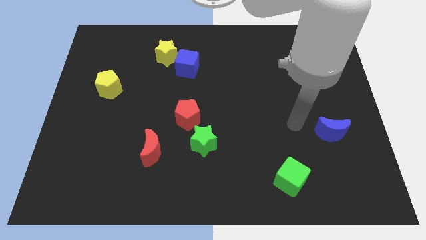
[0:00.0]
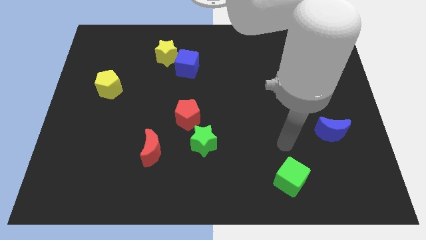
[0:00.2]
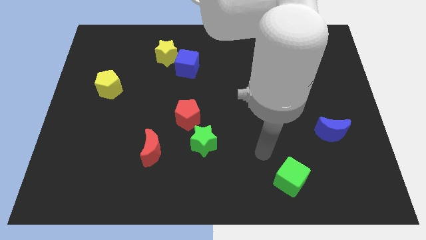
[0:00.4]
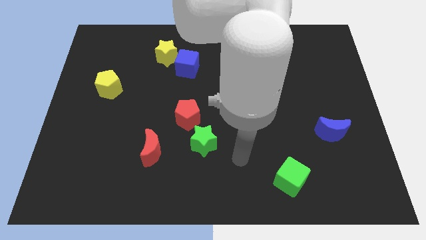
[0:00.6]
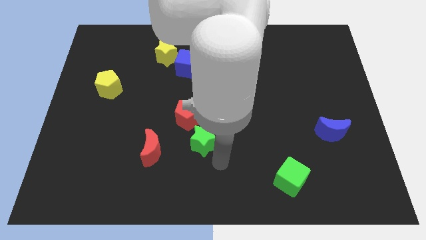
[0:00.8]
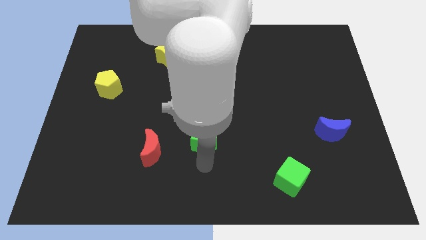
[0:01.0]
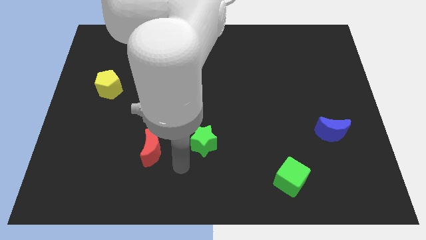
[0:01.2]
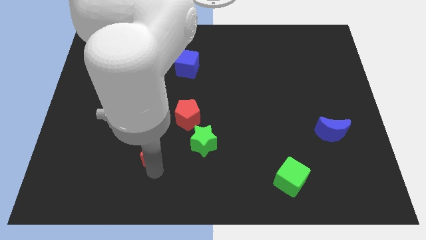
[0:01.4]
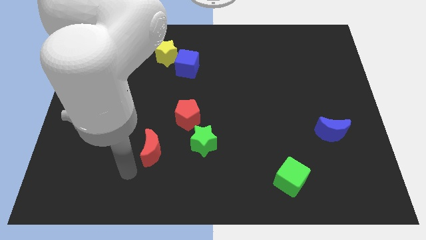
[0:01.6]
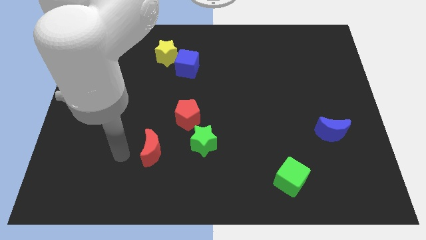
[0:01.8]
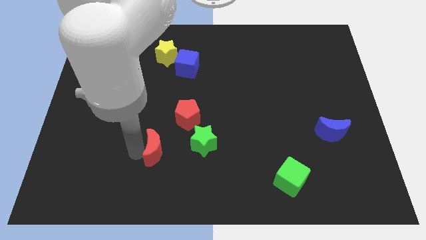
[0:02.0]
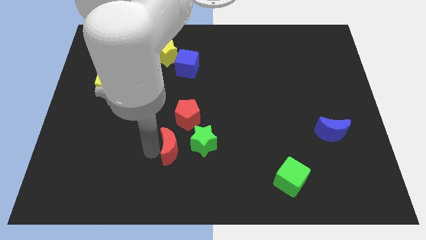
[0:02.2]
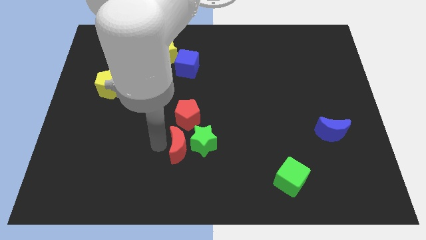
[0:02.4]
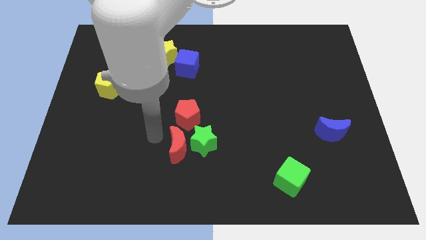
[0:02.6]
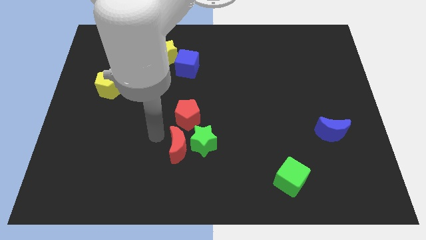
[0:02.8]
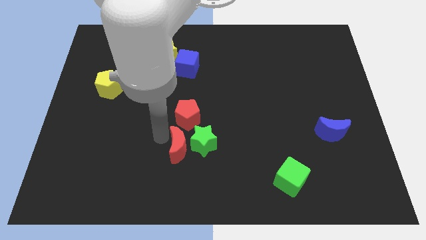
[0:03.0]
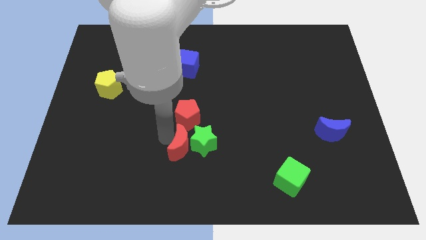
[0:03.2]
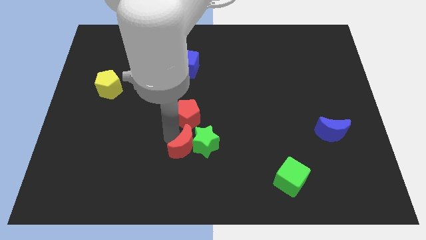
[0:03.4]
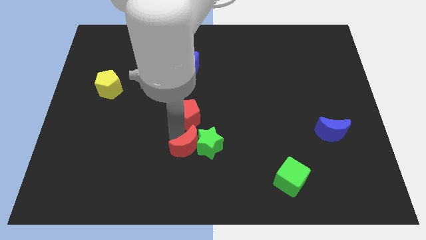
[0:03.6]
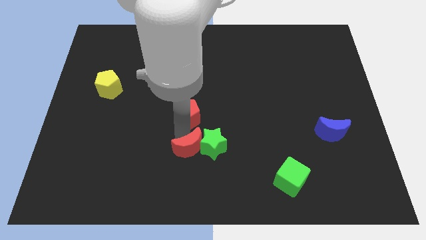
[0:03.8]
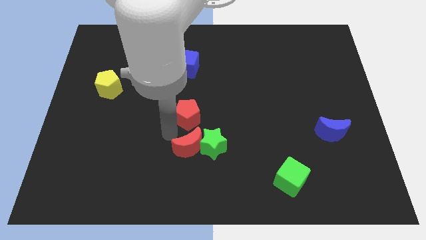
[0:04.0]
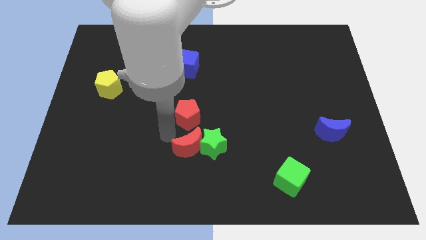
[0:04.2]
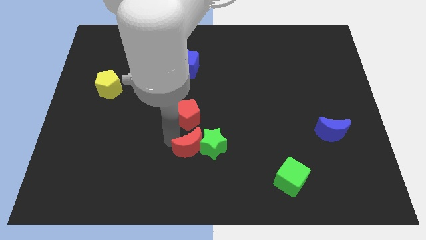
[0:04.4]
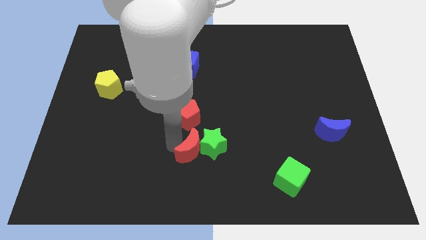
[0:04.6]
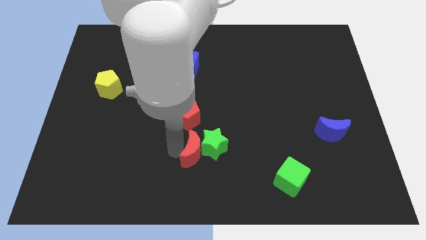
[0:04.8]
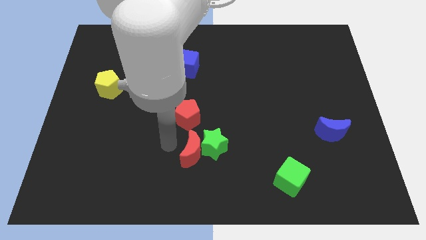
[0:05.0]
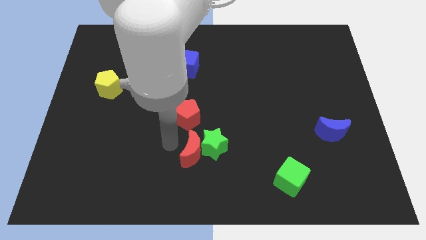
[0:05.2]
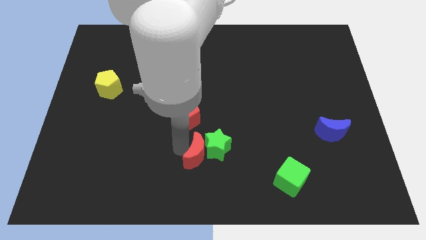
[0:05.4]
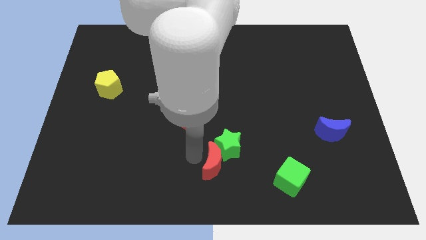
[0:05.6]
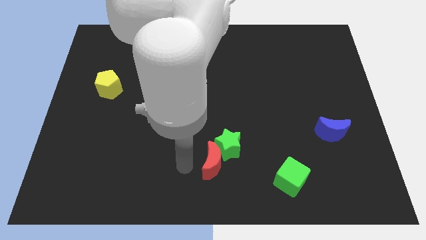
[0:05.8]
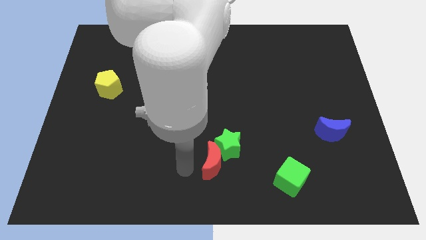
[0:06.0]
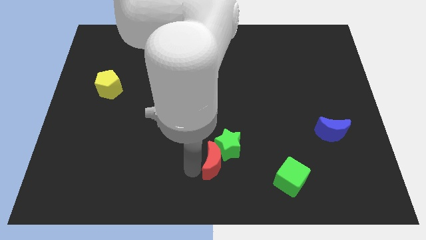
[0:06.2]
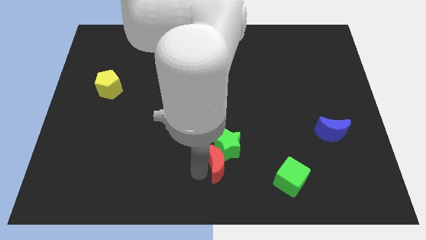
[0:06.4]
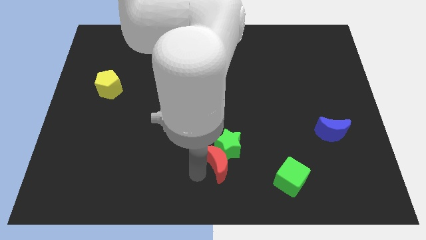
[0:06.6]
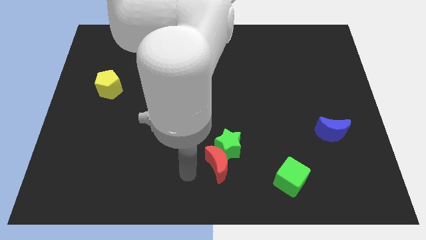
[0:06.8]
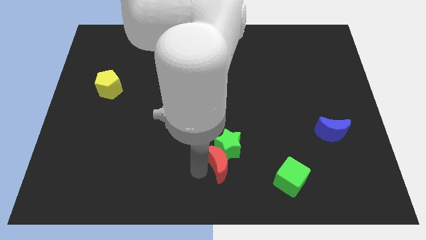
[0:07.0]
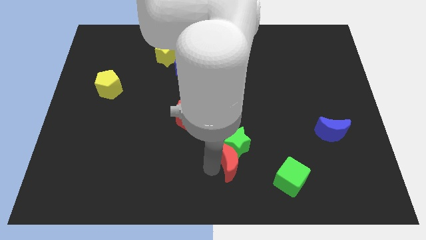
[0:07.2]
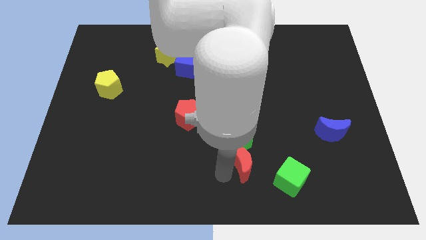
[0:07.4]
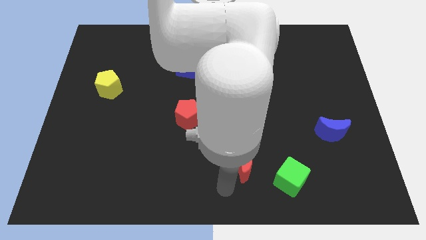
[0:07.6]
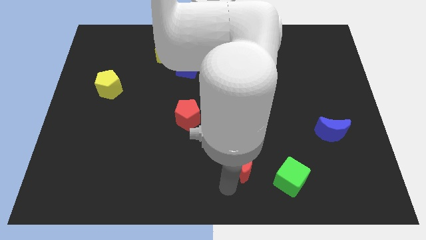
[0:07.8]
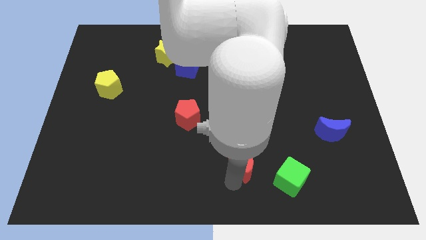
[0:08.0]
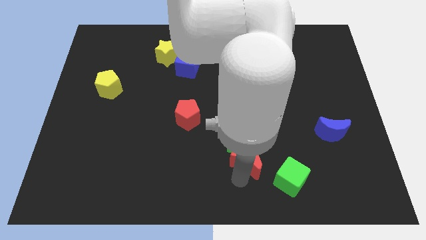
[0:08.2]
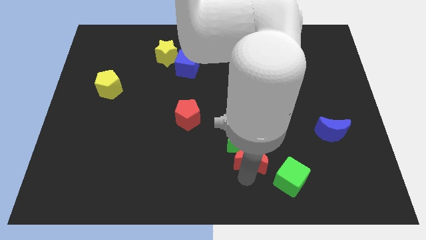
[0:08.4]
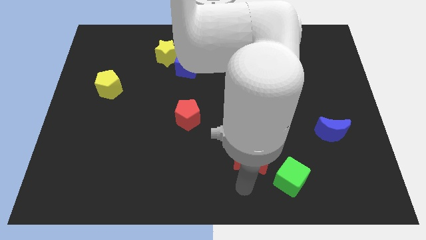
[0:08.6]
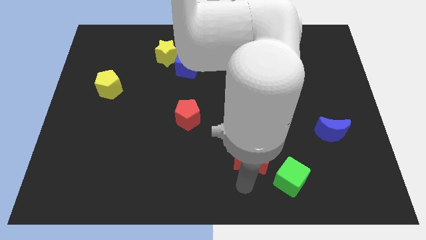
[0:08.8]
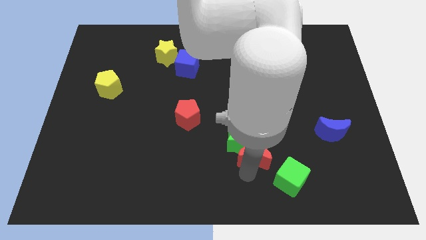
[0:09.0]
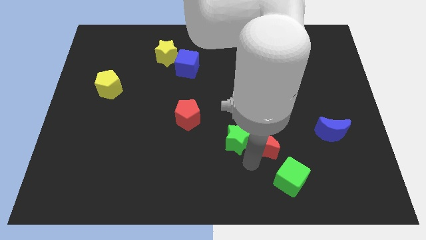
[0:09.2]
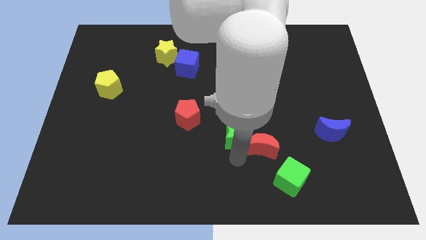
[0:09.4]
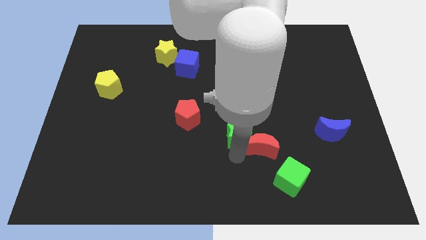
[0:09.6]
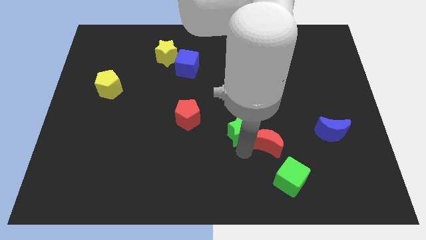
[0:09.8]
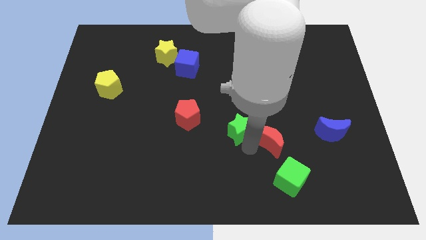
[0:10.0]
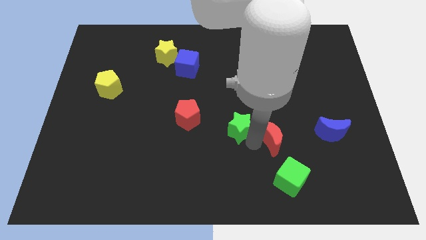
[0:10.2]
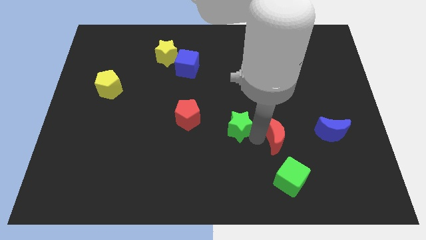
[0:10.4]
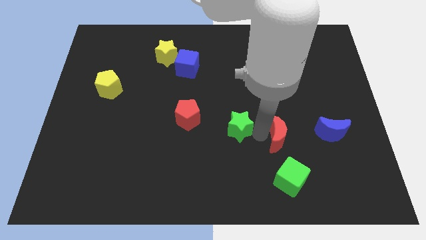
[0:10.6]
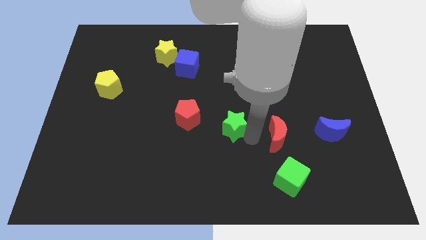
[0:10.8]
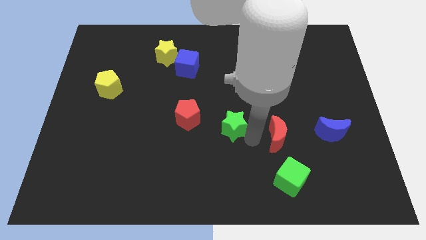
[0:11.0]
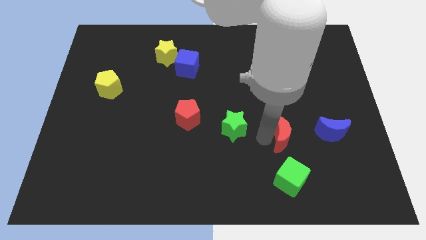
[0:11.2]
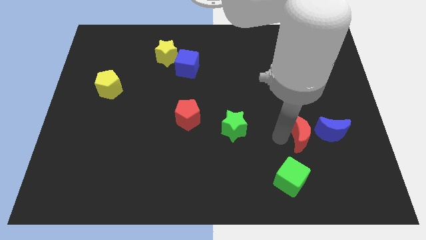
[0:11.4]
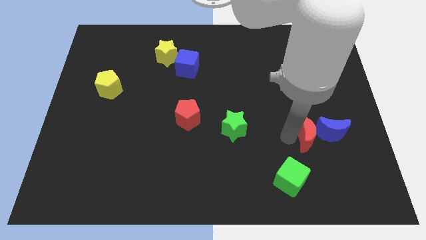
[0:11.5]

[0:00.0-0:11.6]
put the red moon to the blue moon

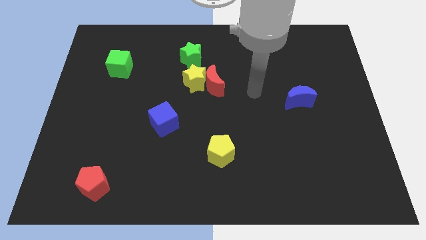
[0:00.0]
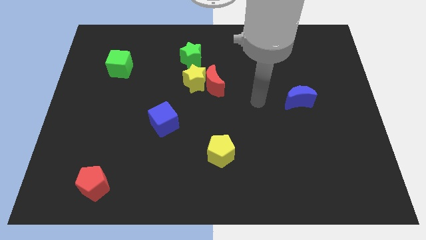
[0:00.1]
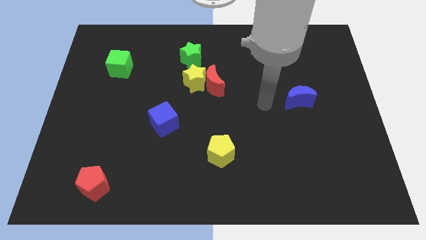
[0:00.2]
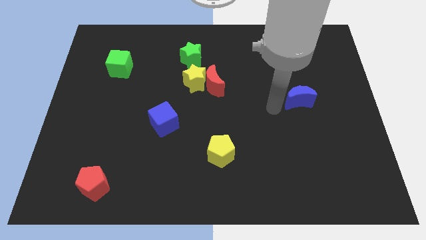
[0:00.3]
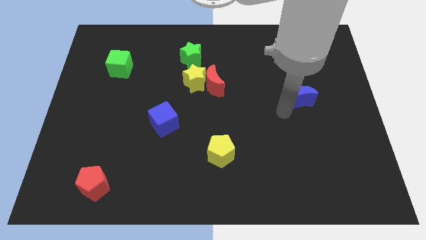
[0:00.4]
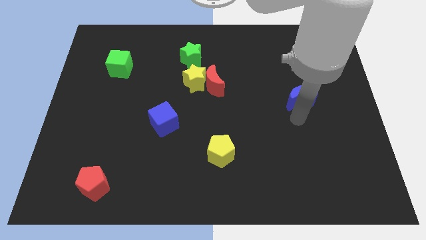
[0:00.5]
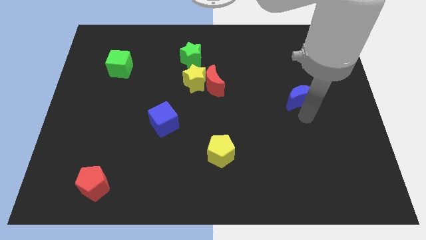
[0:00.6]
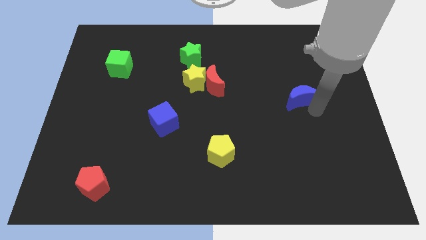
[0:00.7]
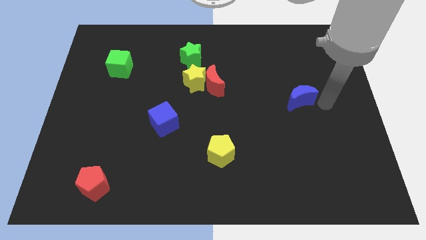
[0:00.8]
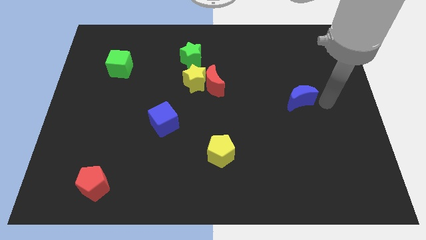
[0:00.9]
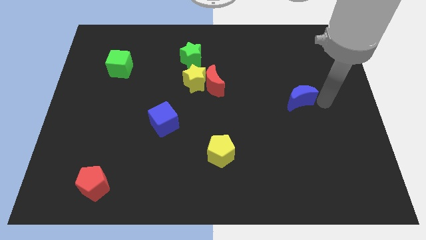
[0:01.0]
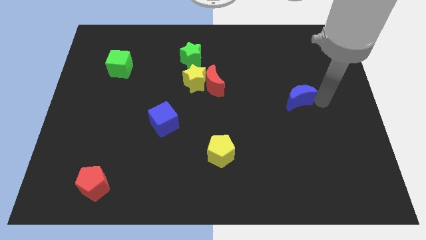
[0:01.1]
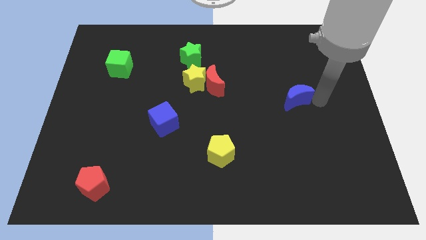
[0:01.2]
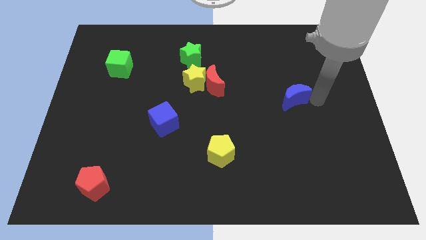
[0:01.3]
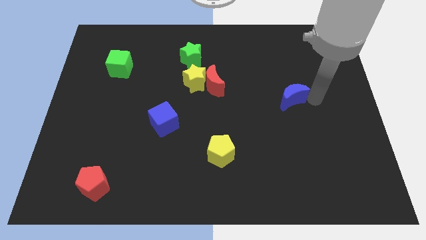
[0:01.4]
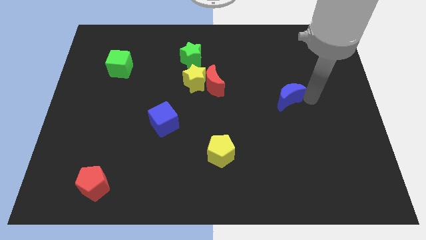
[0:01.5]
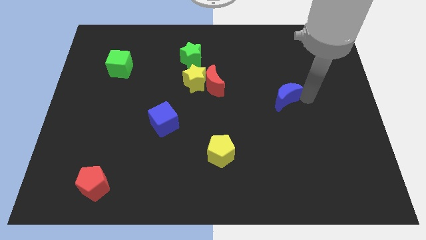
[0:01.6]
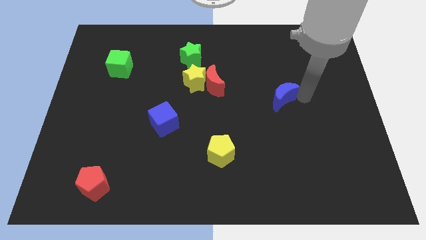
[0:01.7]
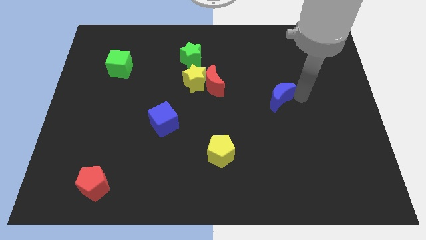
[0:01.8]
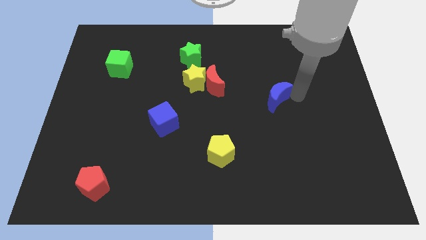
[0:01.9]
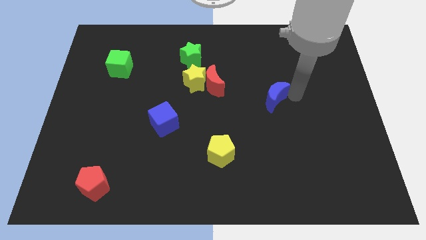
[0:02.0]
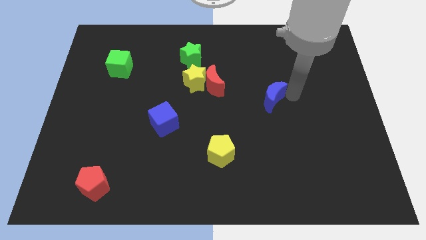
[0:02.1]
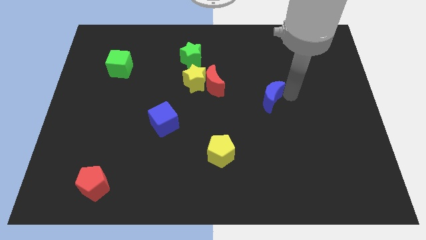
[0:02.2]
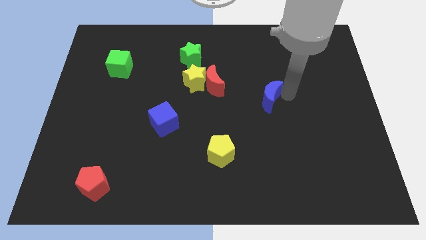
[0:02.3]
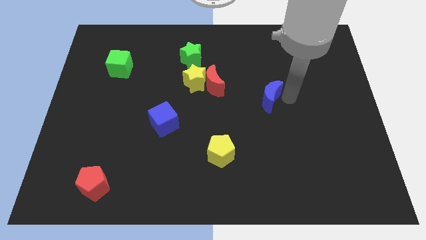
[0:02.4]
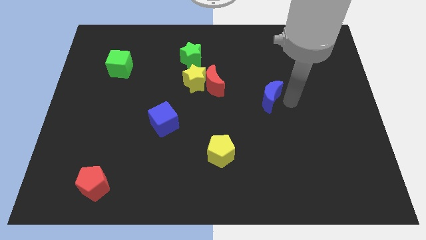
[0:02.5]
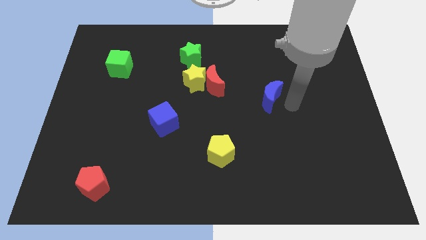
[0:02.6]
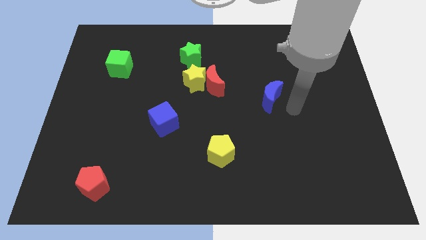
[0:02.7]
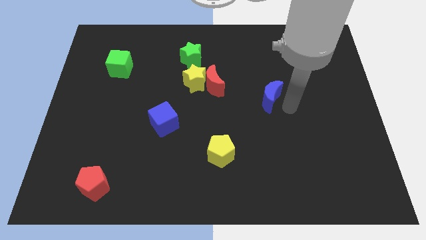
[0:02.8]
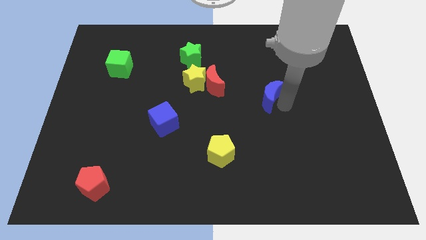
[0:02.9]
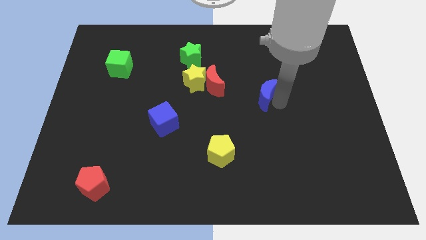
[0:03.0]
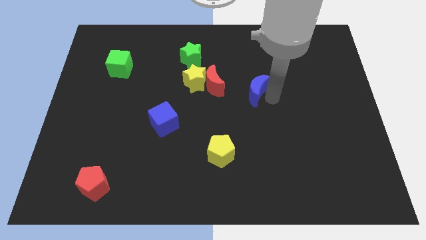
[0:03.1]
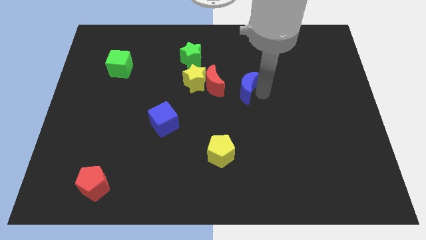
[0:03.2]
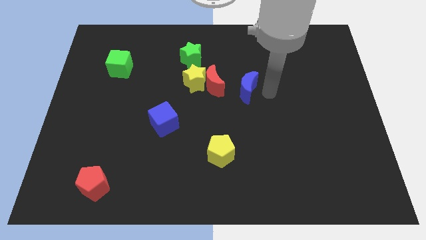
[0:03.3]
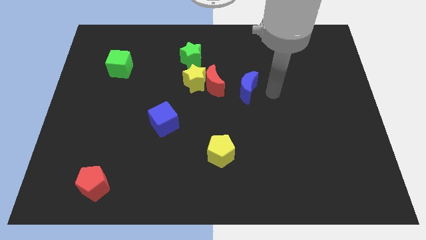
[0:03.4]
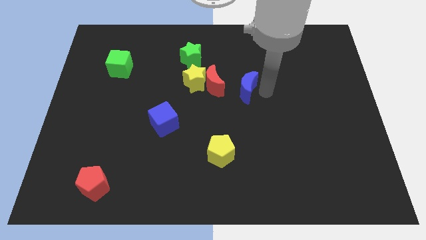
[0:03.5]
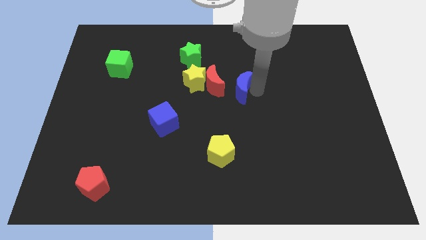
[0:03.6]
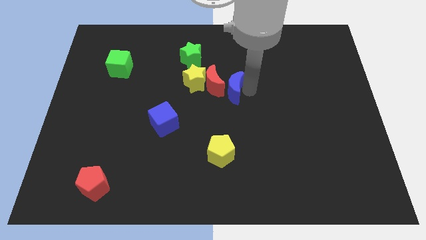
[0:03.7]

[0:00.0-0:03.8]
move the blue moon next to the red moon
